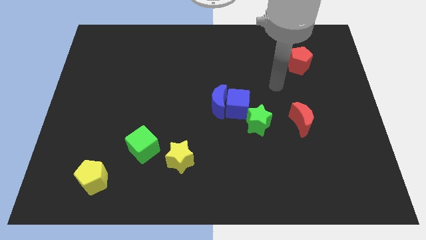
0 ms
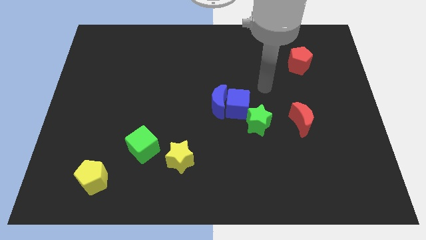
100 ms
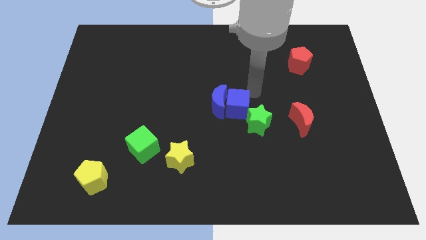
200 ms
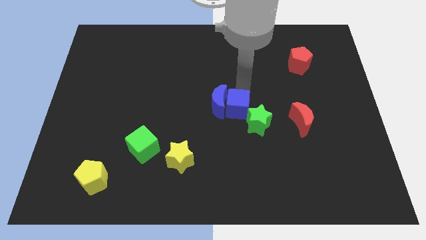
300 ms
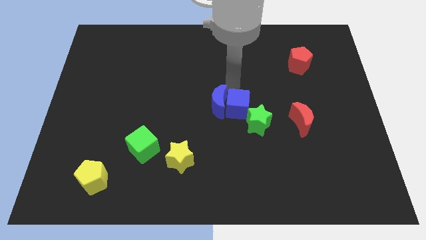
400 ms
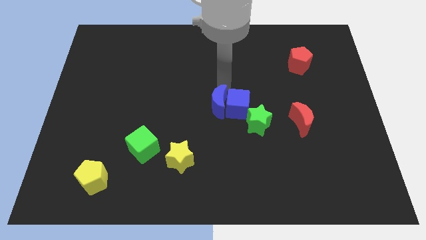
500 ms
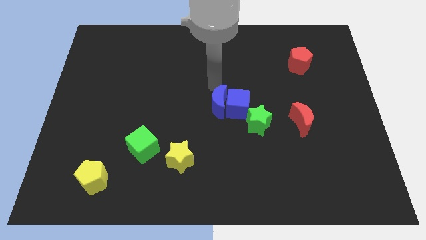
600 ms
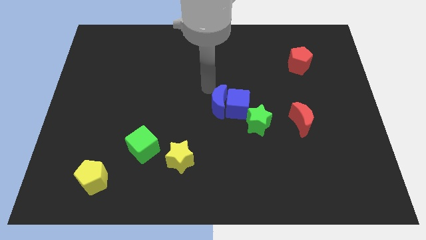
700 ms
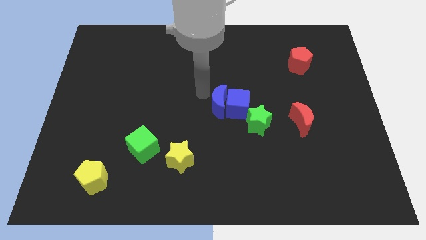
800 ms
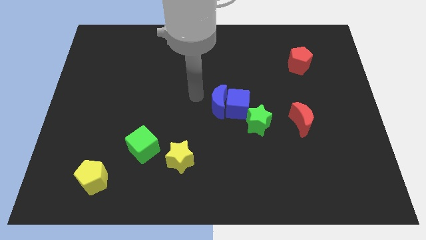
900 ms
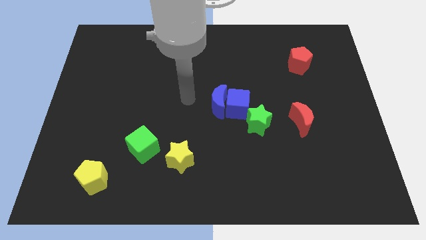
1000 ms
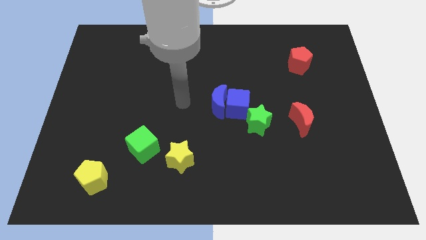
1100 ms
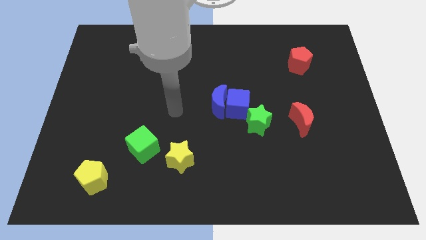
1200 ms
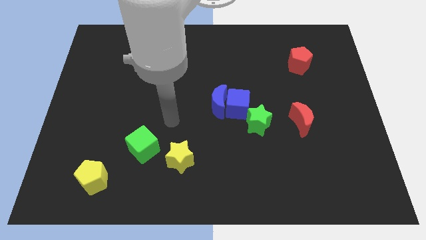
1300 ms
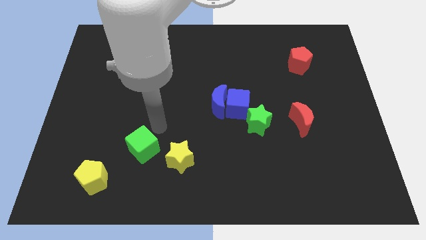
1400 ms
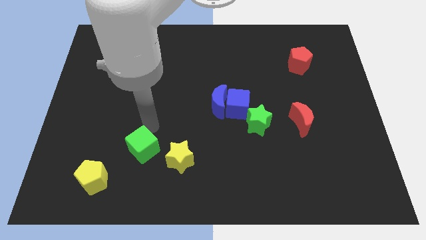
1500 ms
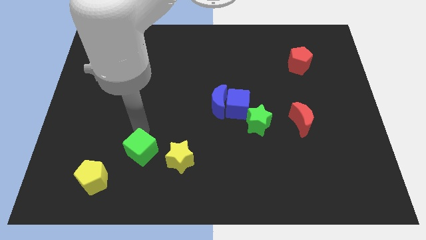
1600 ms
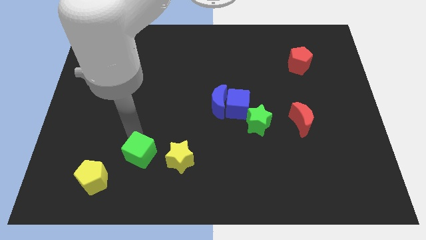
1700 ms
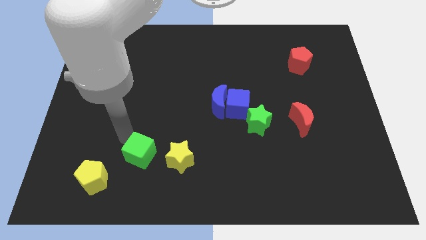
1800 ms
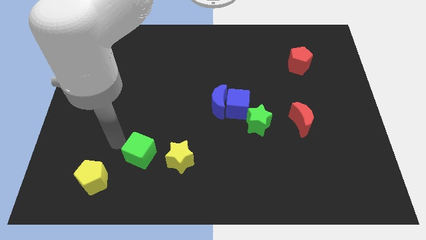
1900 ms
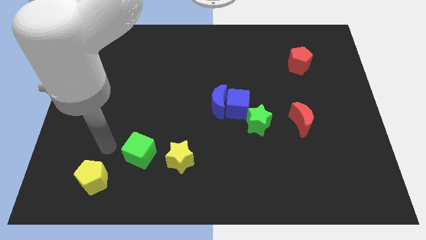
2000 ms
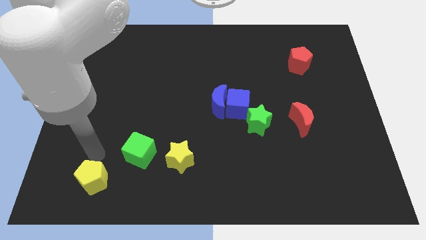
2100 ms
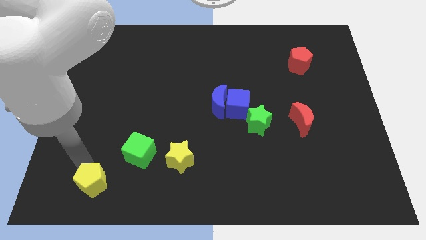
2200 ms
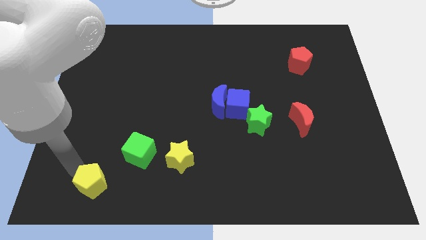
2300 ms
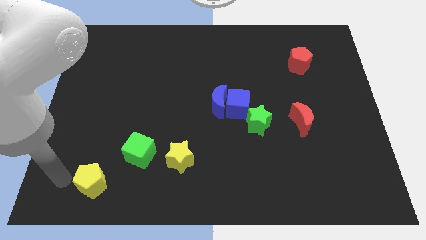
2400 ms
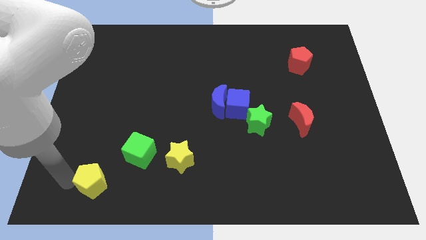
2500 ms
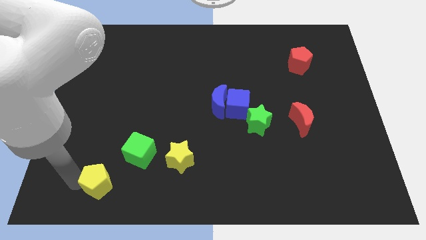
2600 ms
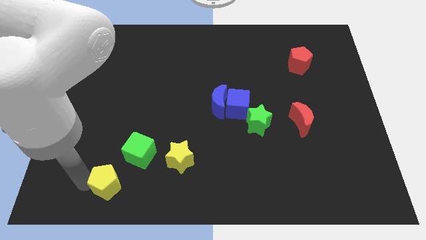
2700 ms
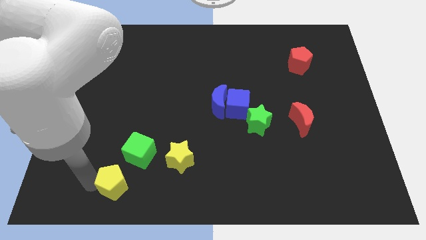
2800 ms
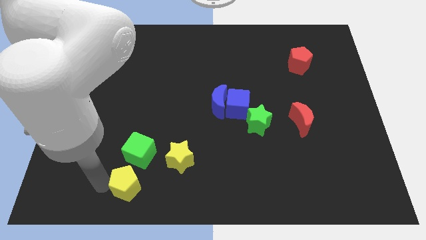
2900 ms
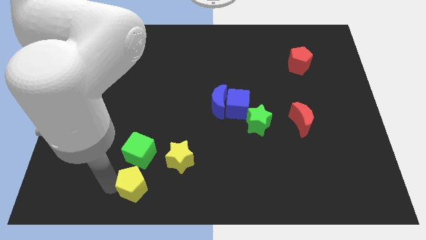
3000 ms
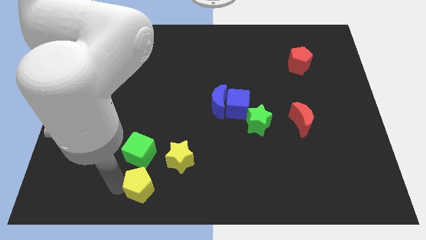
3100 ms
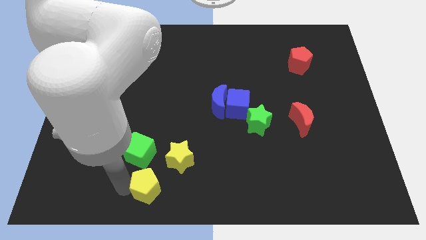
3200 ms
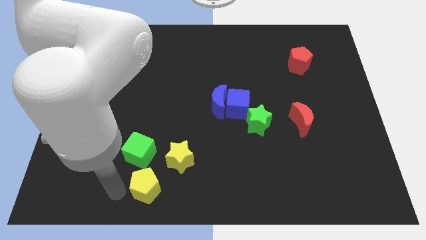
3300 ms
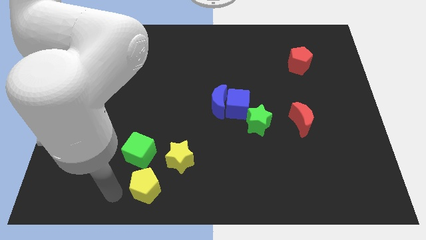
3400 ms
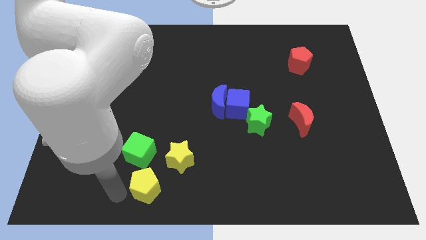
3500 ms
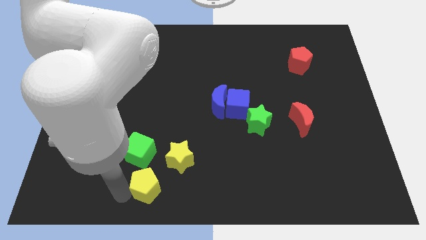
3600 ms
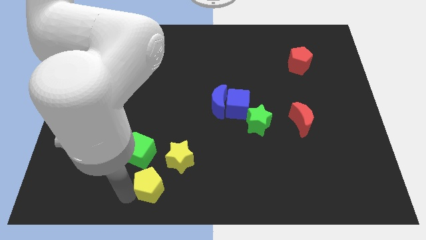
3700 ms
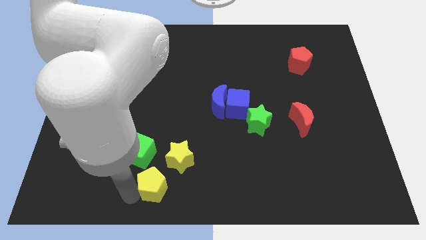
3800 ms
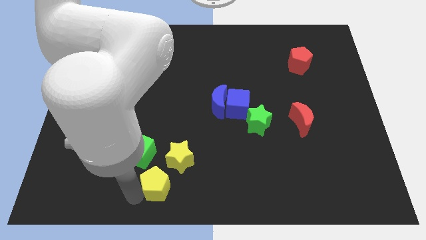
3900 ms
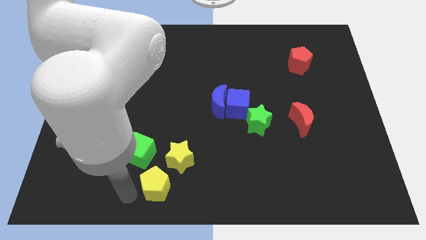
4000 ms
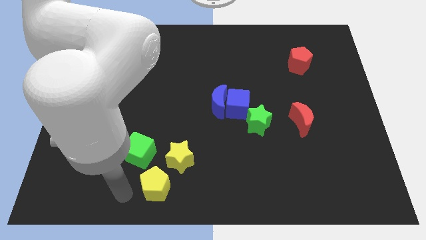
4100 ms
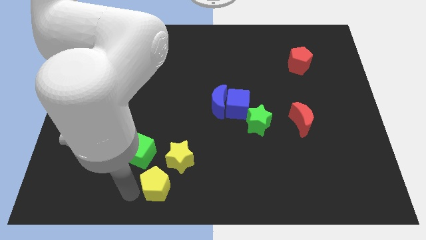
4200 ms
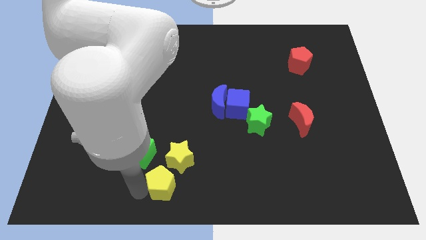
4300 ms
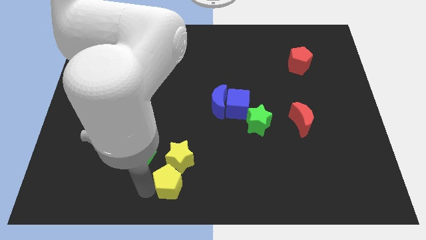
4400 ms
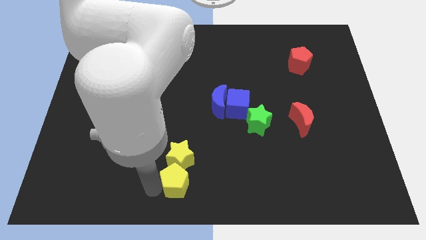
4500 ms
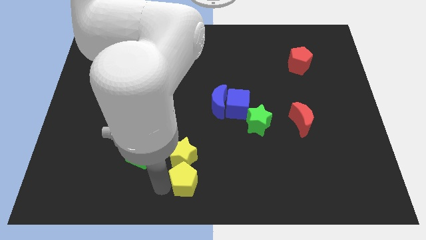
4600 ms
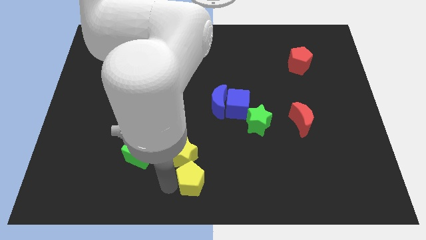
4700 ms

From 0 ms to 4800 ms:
slide the yellow pentagon to the right

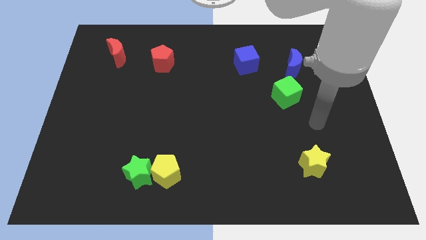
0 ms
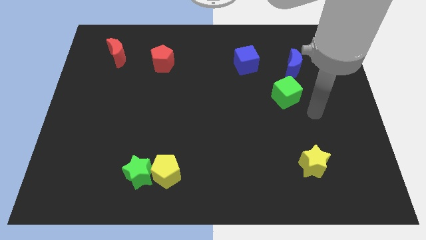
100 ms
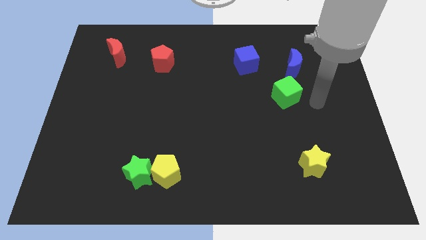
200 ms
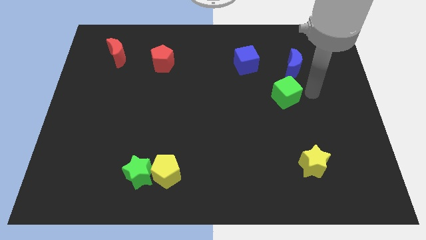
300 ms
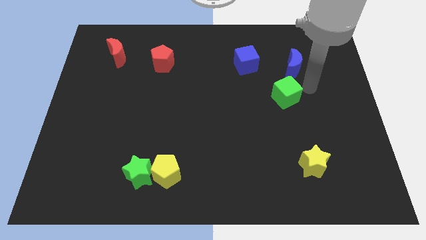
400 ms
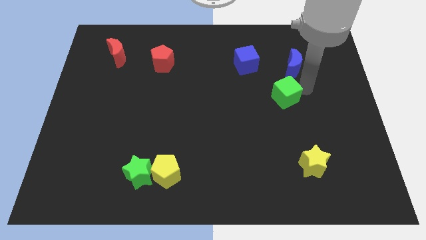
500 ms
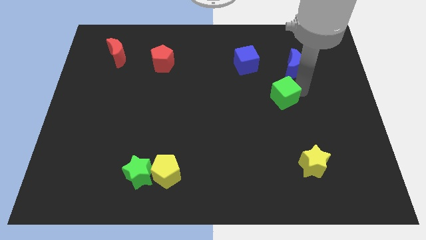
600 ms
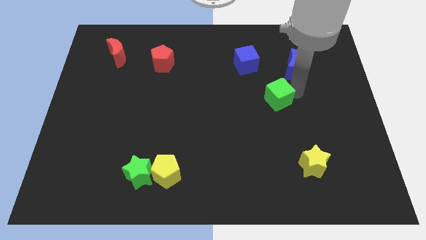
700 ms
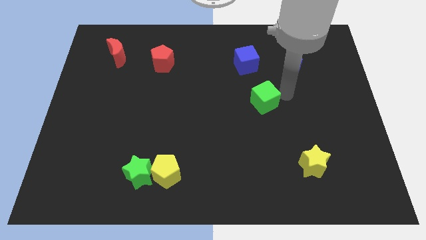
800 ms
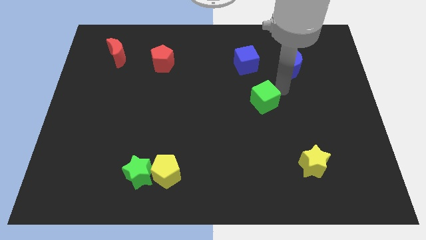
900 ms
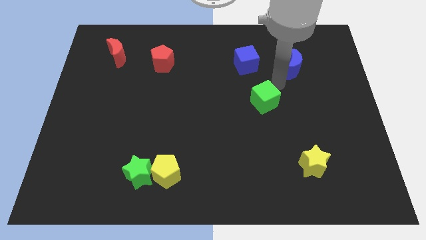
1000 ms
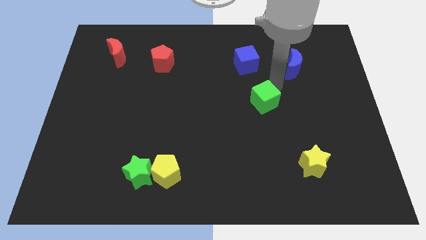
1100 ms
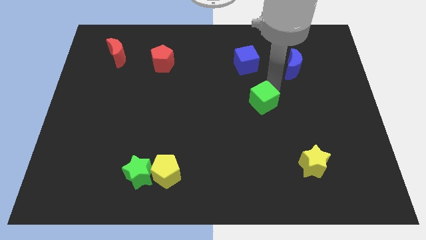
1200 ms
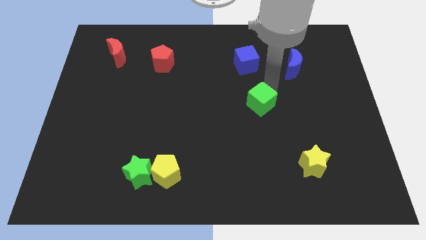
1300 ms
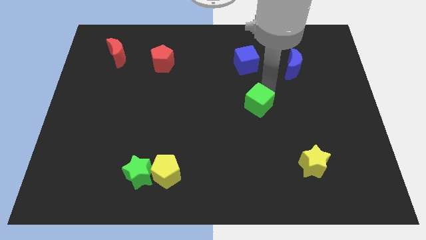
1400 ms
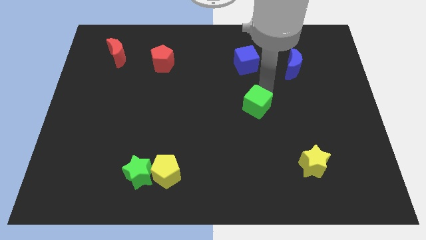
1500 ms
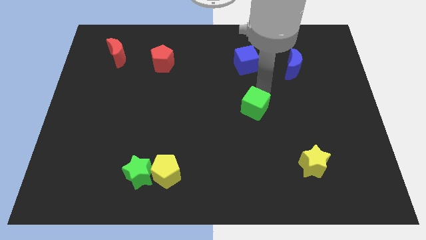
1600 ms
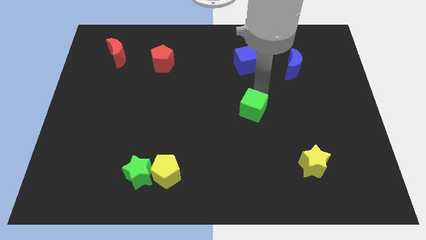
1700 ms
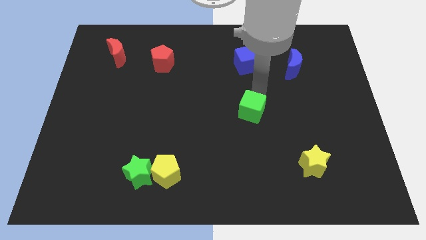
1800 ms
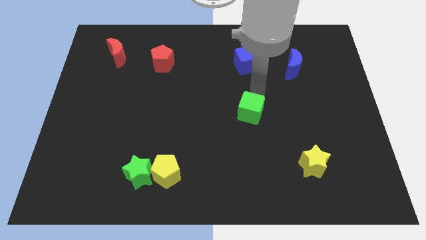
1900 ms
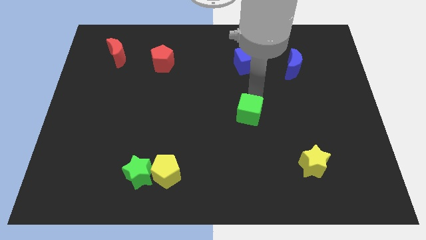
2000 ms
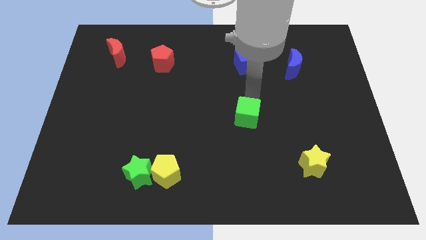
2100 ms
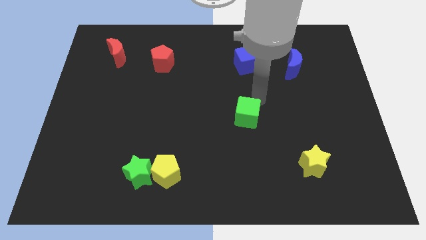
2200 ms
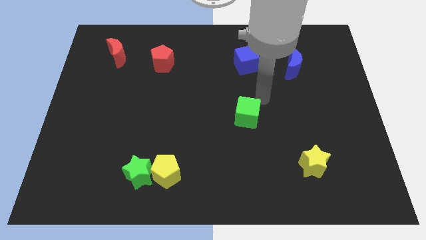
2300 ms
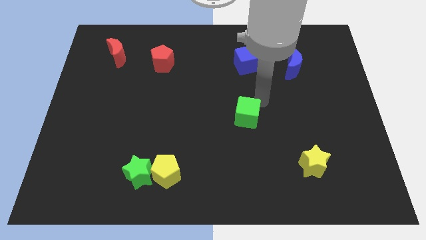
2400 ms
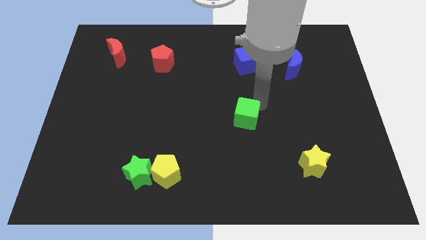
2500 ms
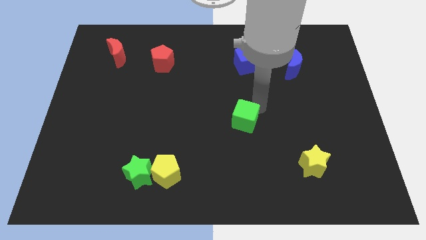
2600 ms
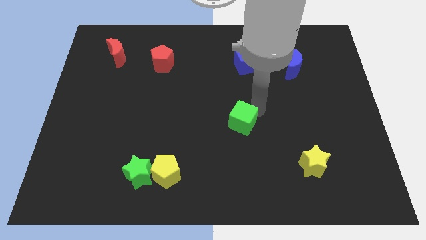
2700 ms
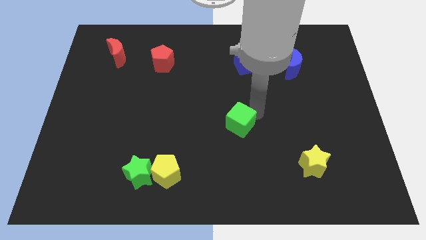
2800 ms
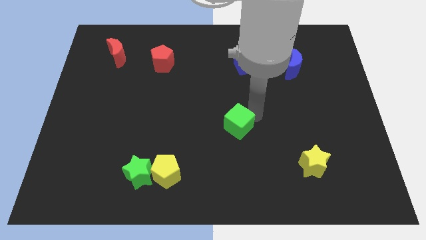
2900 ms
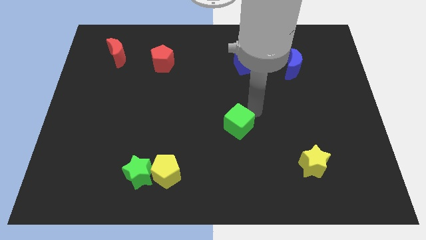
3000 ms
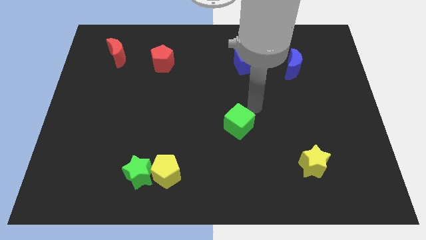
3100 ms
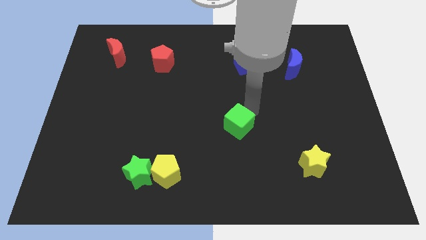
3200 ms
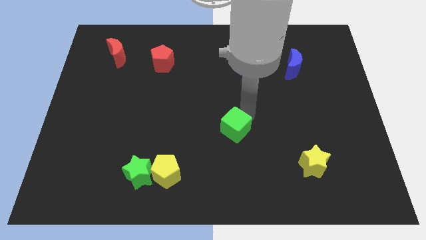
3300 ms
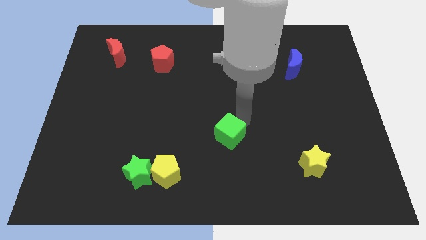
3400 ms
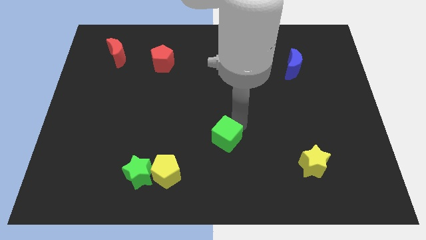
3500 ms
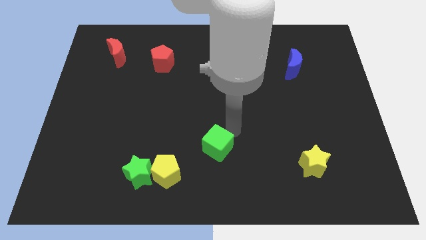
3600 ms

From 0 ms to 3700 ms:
push the green cube down and to the left
